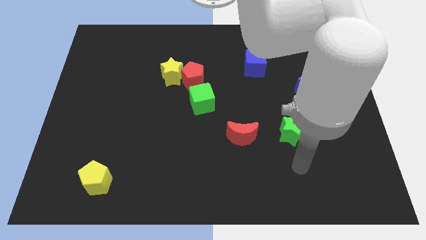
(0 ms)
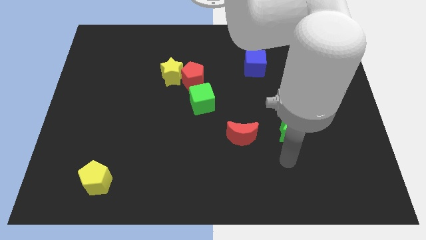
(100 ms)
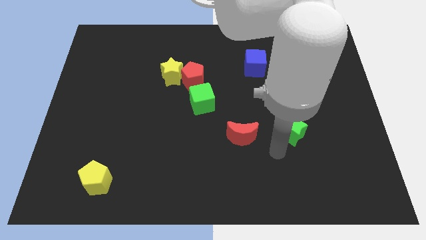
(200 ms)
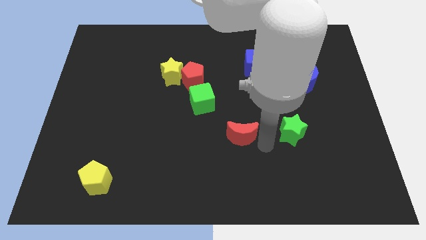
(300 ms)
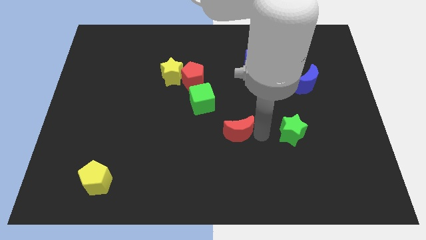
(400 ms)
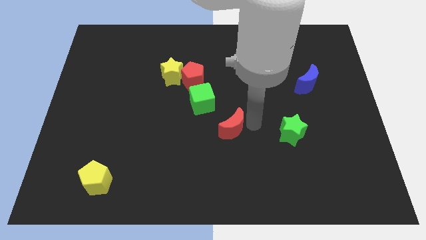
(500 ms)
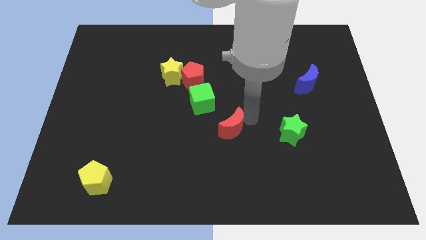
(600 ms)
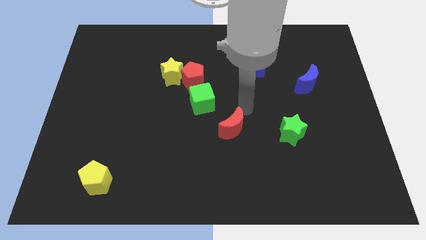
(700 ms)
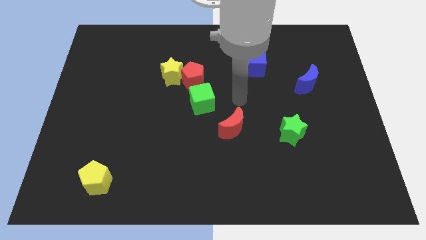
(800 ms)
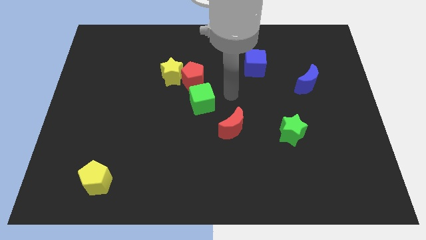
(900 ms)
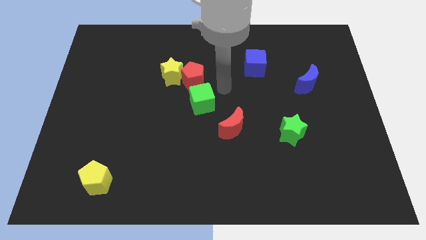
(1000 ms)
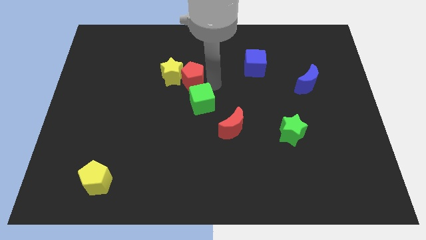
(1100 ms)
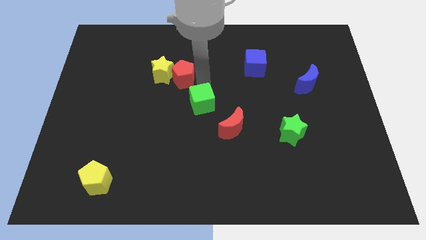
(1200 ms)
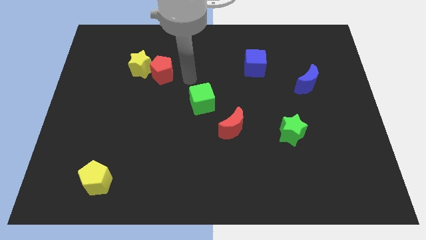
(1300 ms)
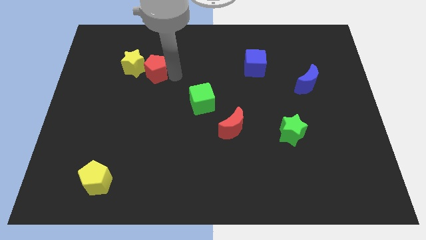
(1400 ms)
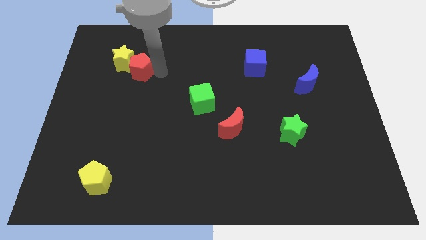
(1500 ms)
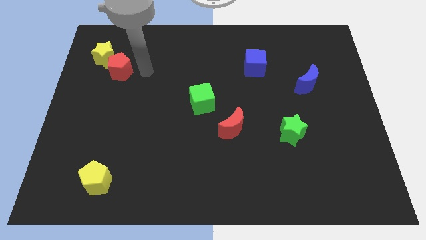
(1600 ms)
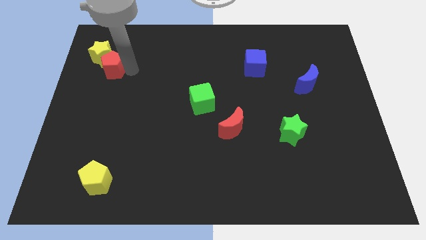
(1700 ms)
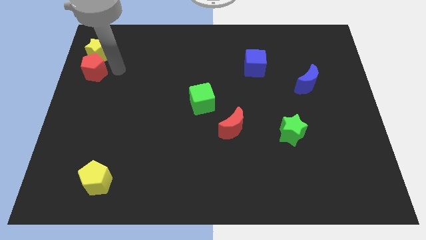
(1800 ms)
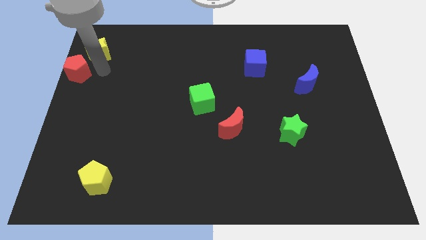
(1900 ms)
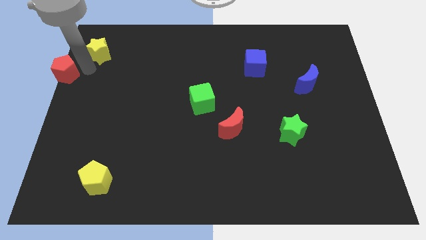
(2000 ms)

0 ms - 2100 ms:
move the yellow star away from the red pentagon

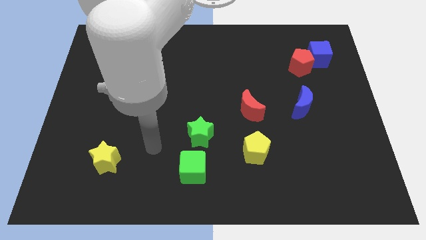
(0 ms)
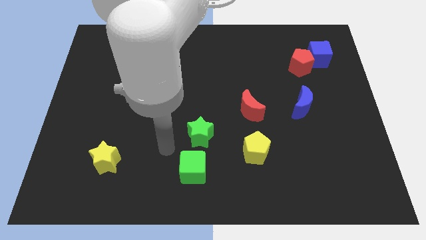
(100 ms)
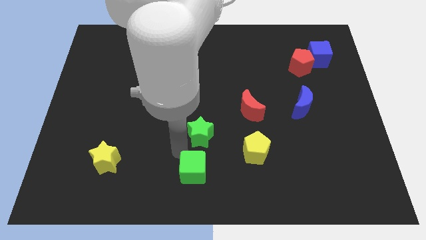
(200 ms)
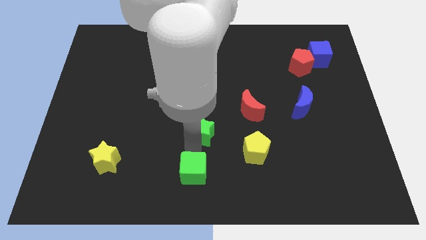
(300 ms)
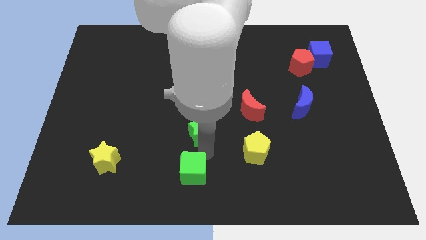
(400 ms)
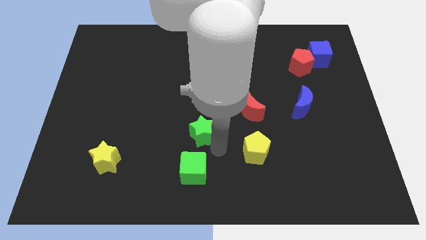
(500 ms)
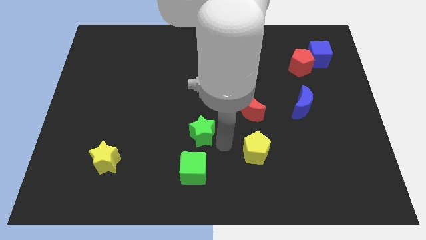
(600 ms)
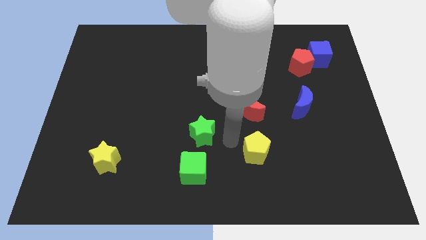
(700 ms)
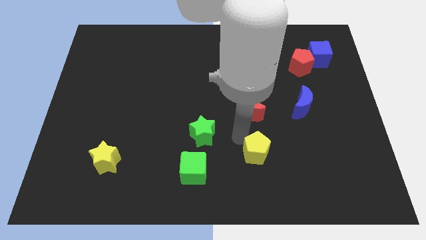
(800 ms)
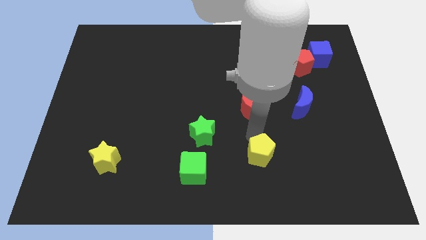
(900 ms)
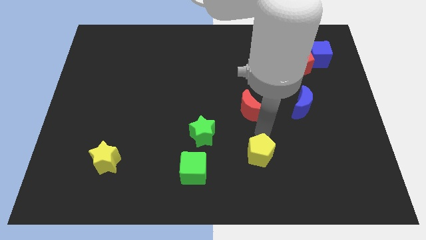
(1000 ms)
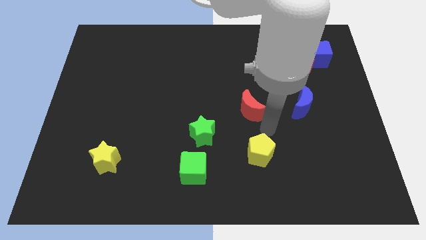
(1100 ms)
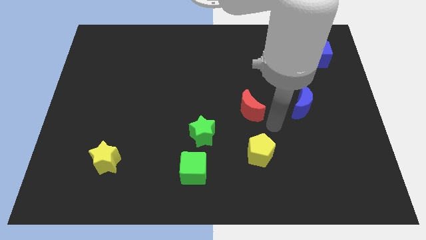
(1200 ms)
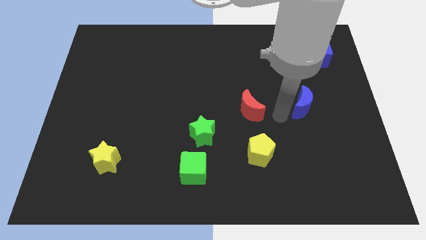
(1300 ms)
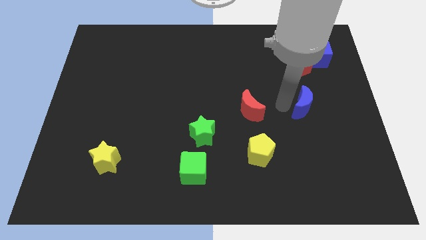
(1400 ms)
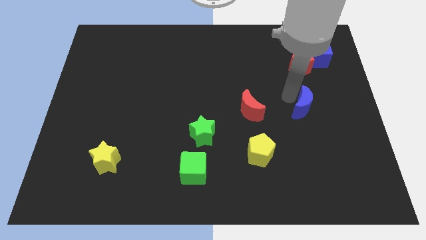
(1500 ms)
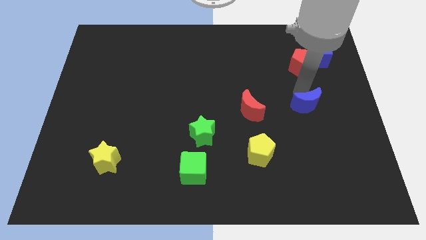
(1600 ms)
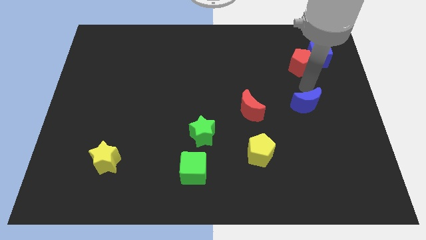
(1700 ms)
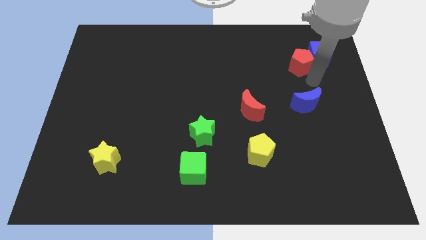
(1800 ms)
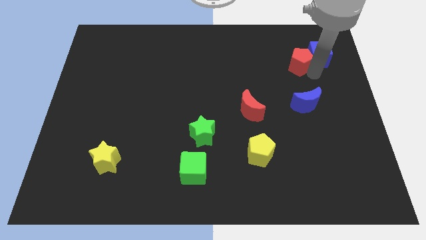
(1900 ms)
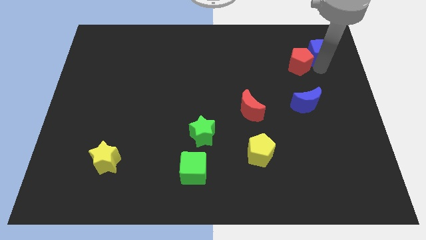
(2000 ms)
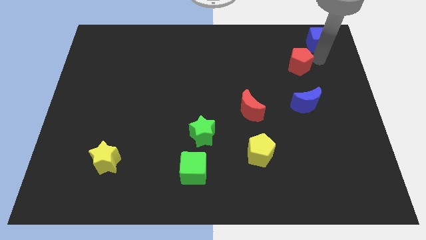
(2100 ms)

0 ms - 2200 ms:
pull the red pentagon apart from the blue cube

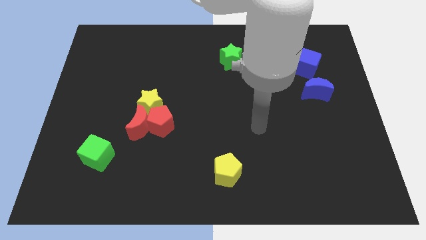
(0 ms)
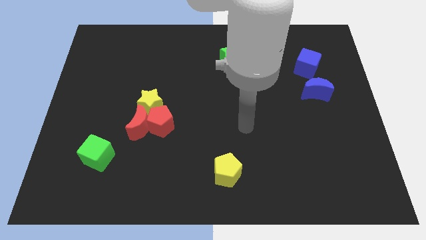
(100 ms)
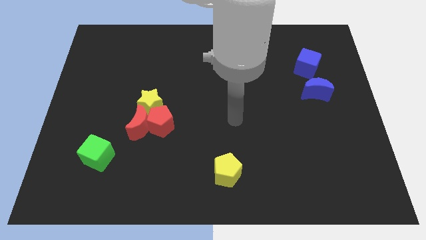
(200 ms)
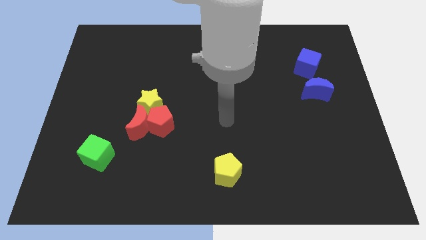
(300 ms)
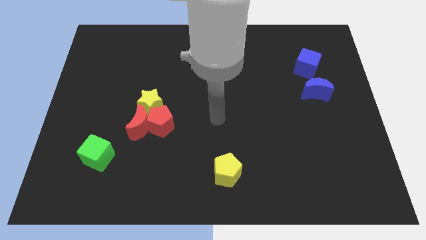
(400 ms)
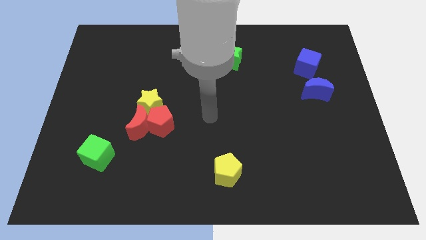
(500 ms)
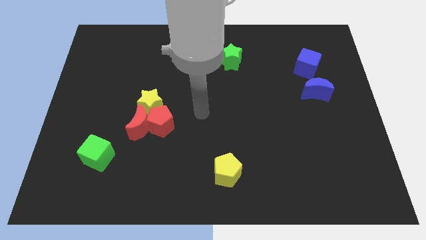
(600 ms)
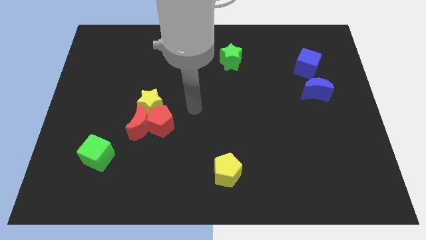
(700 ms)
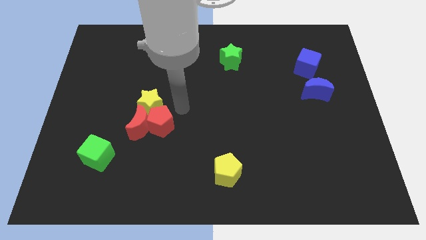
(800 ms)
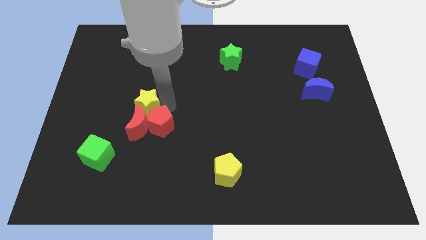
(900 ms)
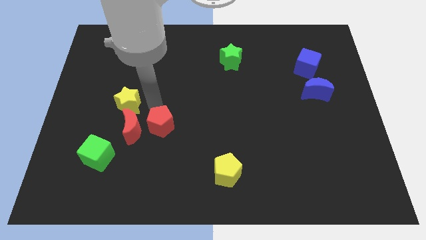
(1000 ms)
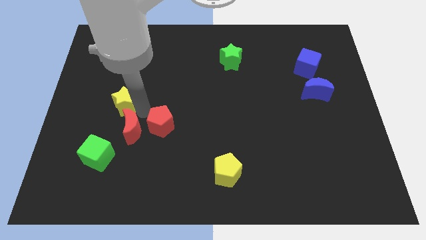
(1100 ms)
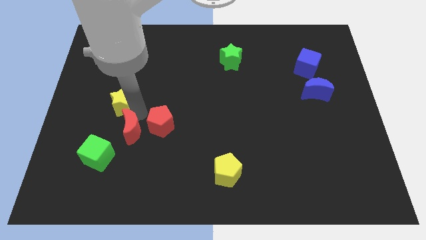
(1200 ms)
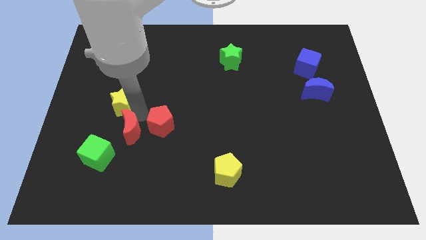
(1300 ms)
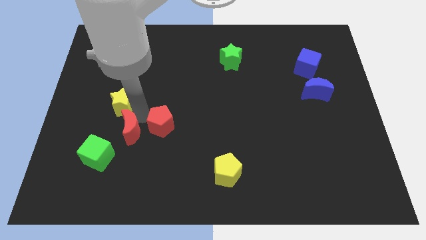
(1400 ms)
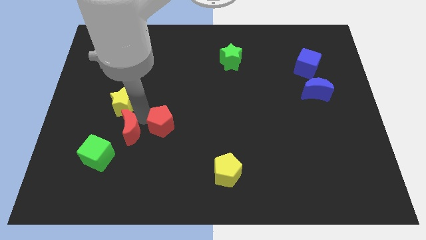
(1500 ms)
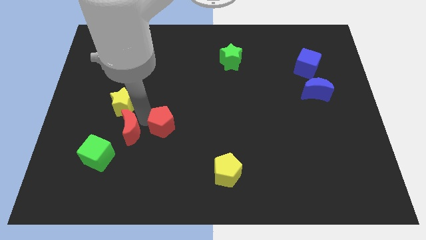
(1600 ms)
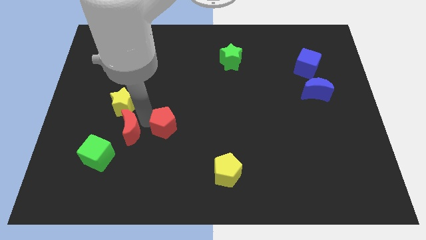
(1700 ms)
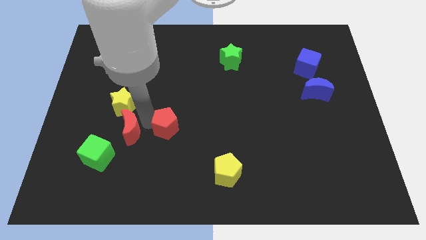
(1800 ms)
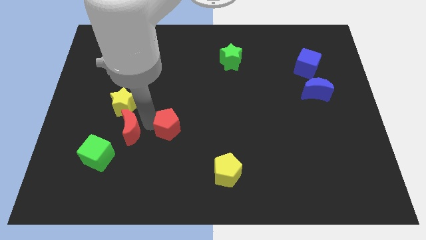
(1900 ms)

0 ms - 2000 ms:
pull the red pentagon apart from the red moon and yellow star

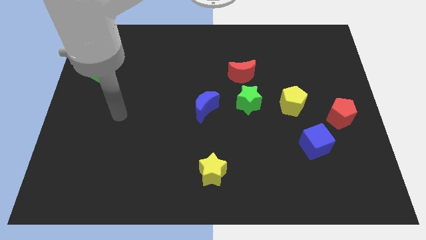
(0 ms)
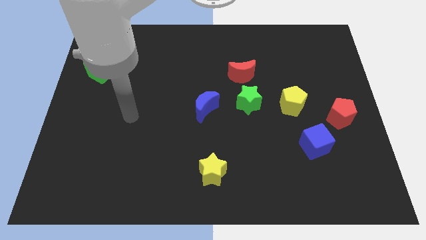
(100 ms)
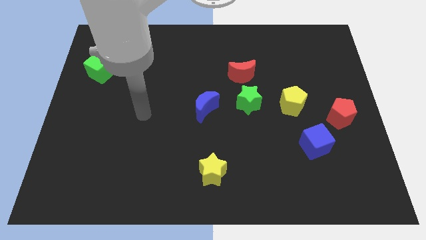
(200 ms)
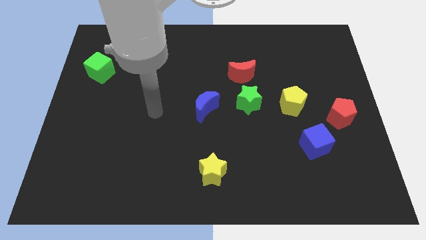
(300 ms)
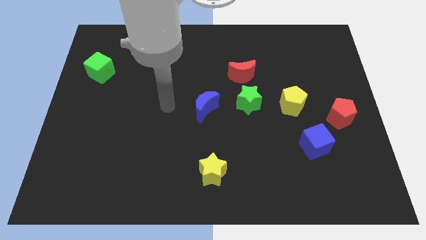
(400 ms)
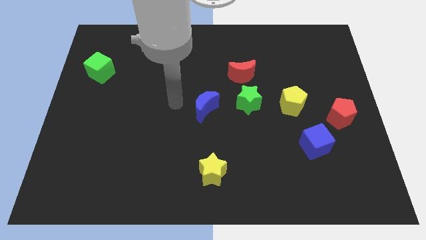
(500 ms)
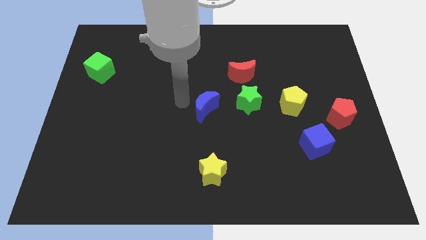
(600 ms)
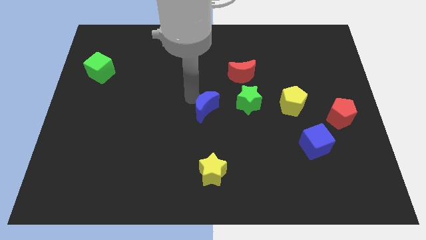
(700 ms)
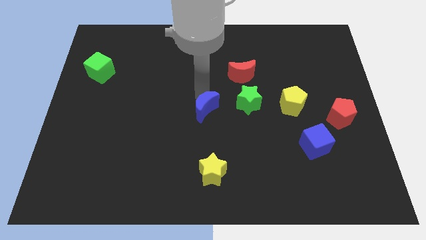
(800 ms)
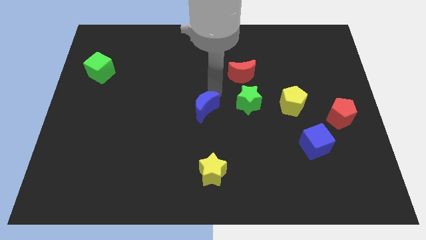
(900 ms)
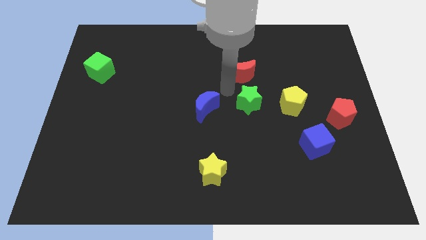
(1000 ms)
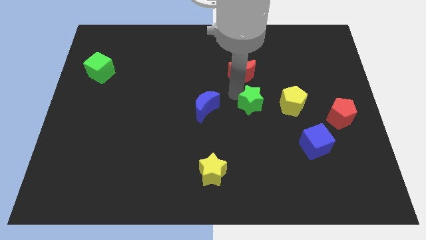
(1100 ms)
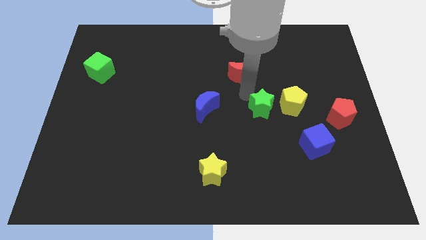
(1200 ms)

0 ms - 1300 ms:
pull the red moon apart from the green star

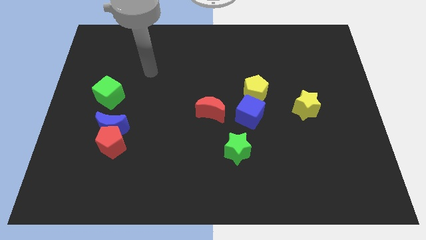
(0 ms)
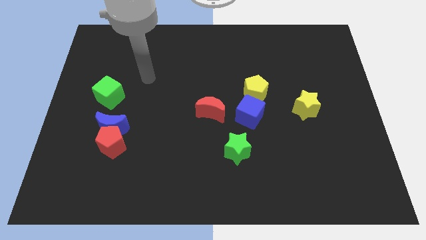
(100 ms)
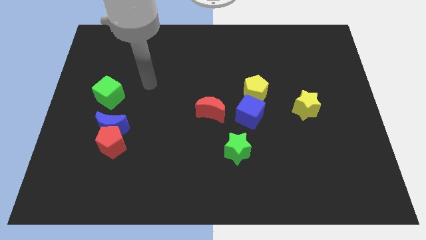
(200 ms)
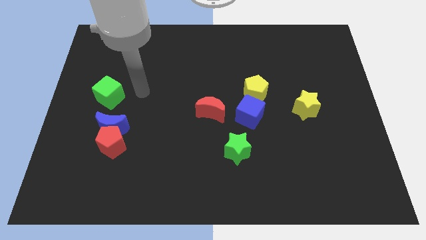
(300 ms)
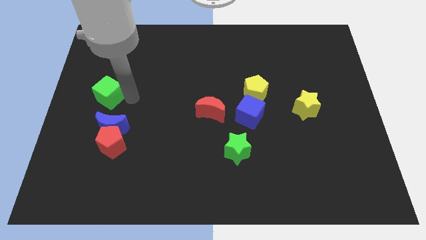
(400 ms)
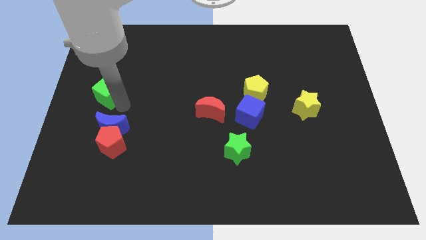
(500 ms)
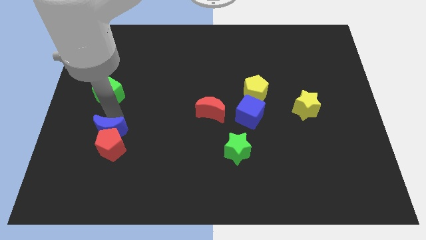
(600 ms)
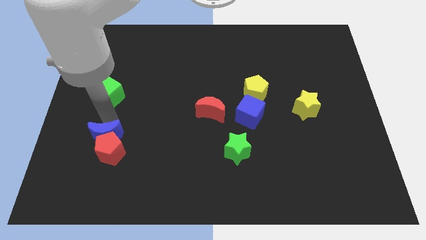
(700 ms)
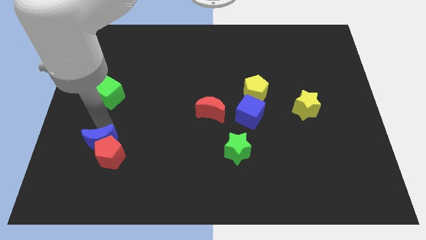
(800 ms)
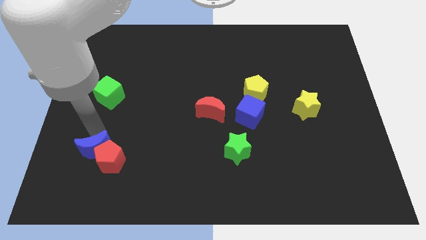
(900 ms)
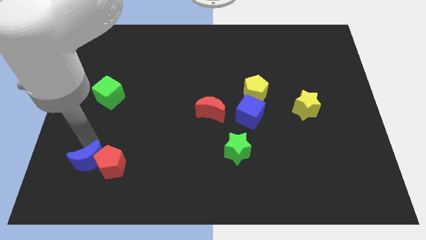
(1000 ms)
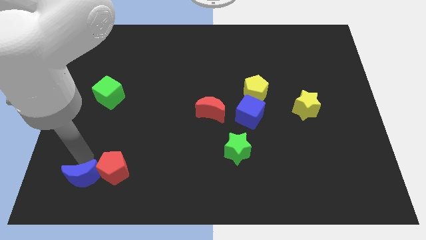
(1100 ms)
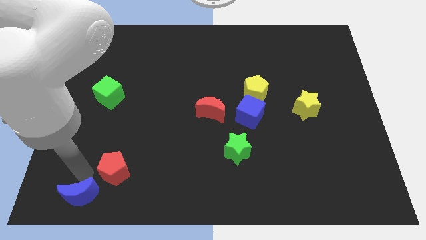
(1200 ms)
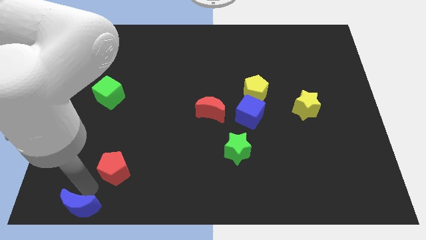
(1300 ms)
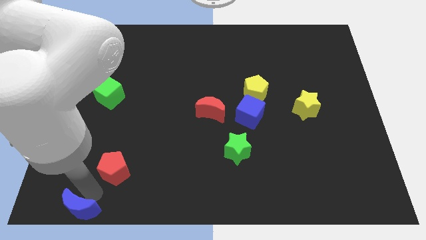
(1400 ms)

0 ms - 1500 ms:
separate the red pentagon from the blue moon
